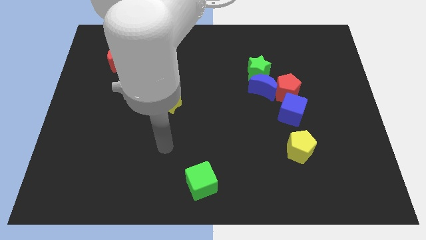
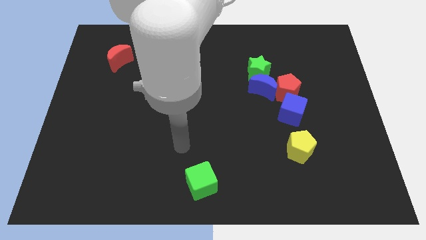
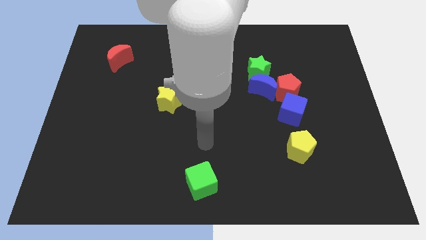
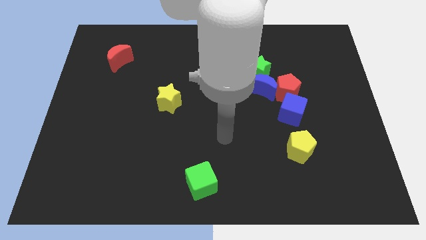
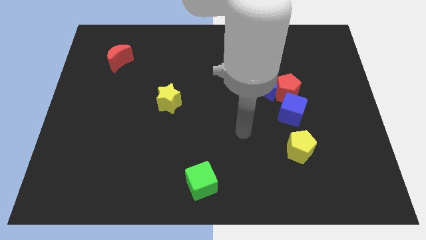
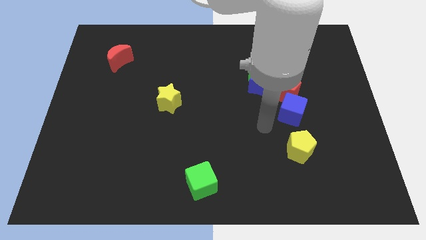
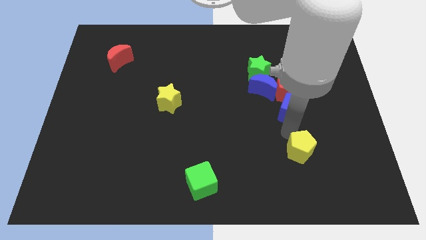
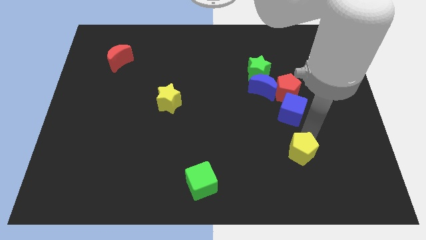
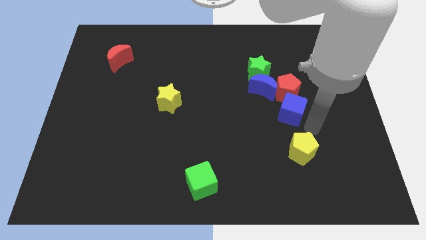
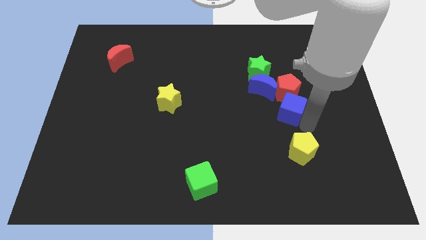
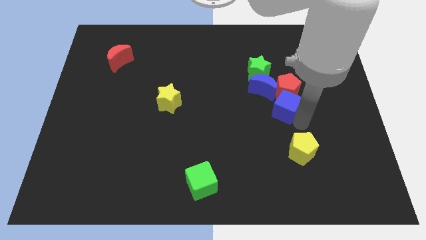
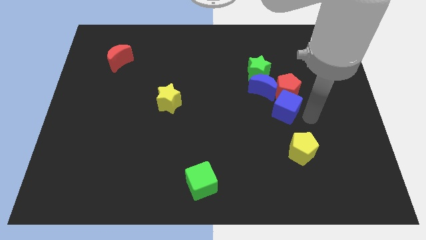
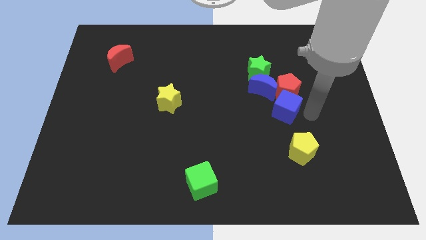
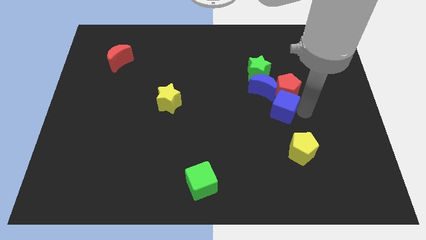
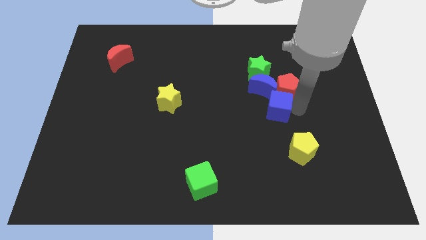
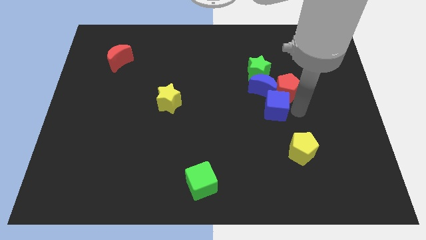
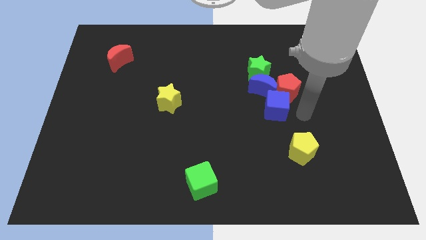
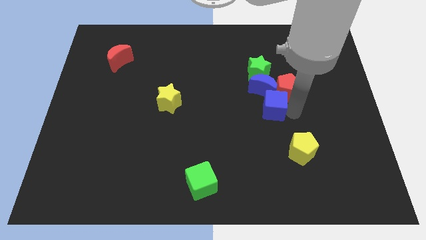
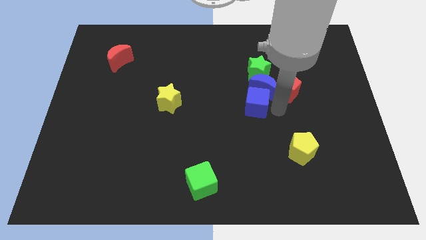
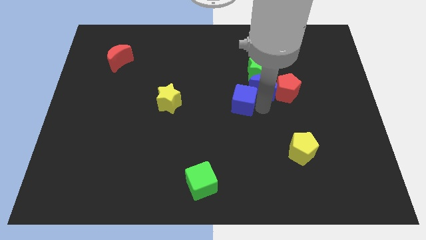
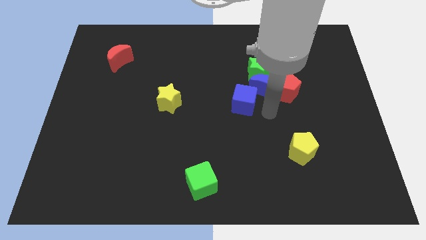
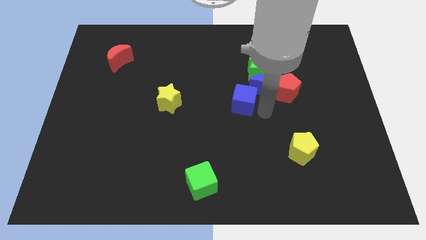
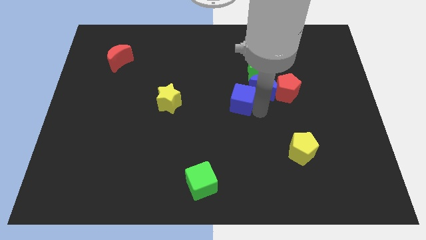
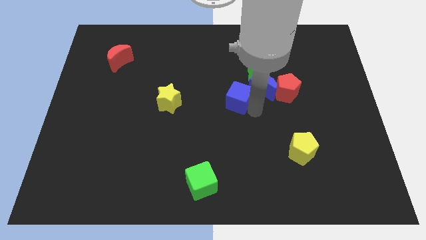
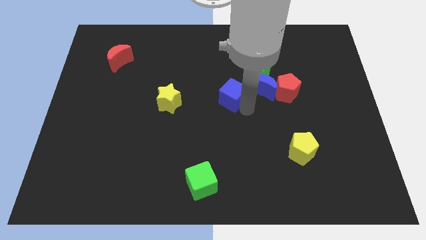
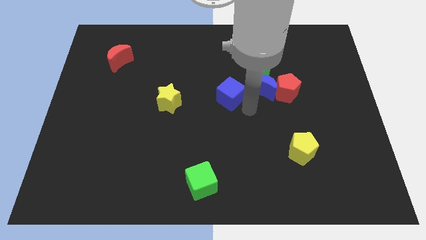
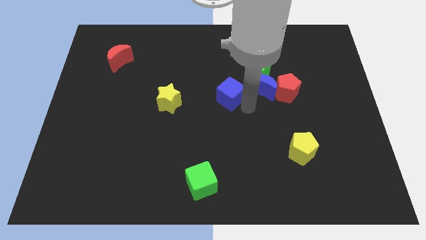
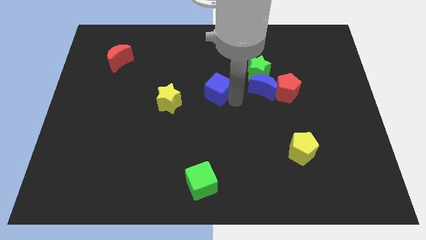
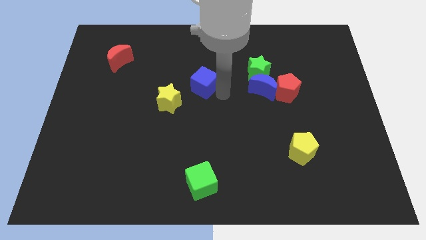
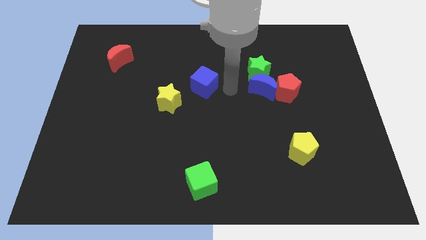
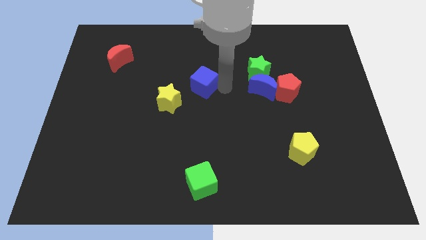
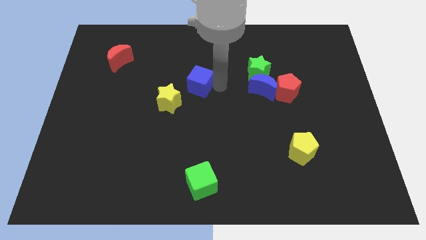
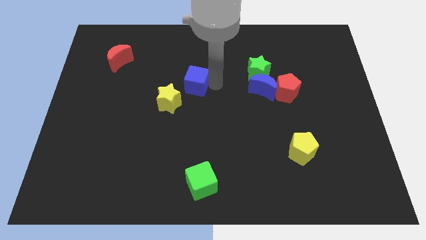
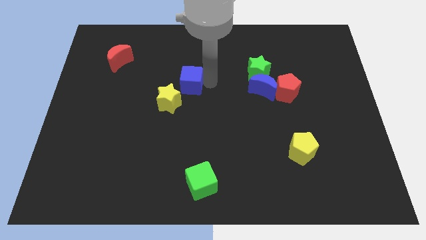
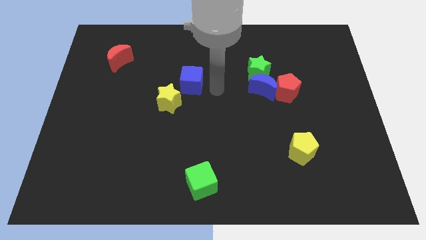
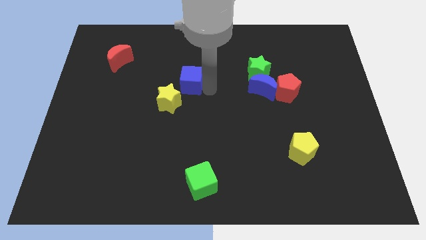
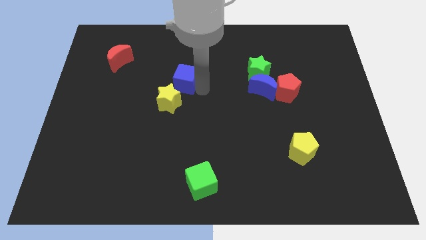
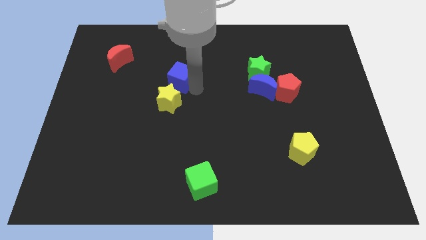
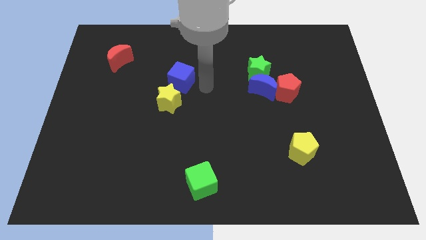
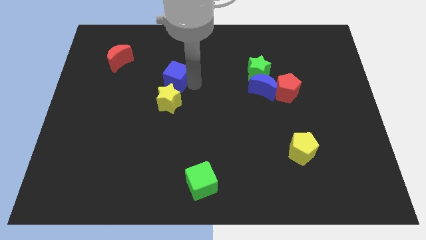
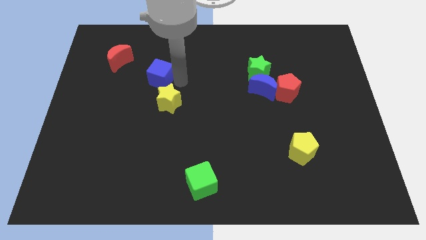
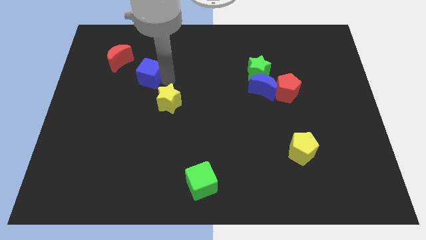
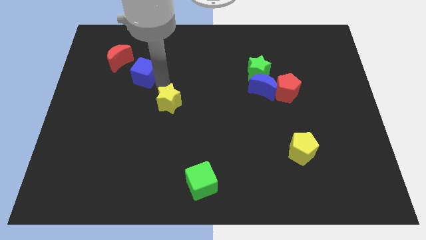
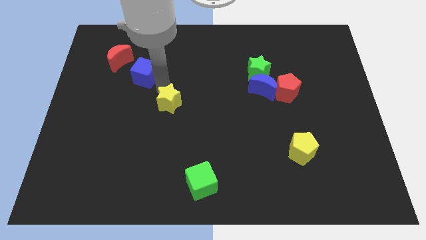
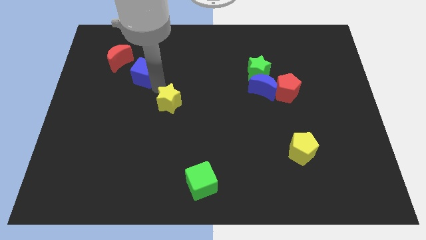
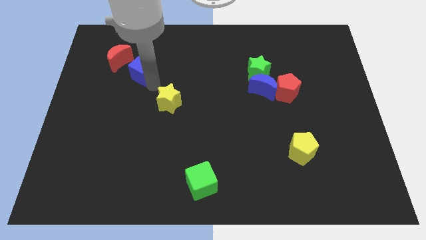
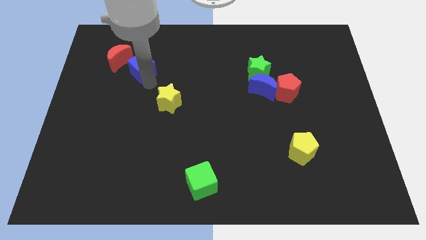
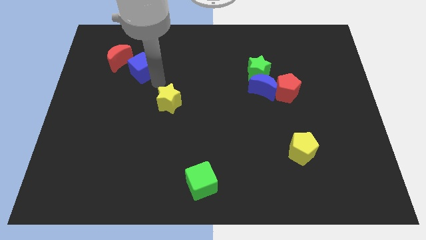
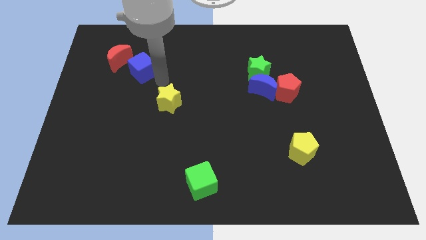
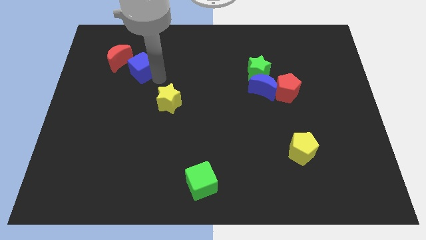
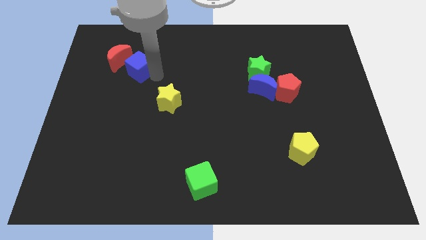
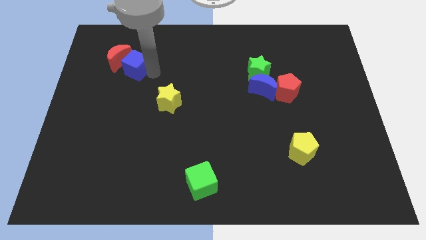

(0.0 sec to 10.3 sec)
slide the blue cube close to the red moon

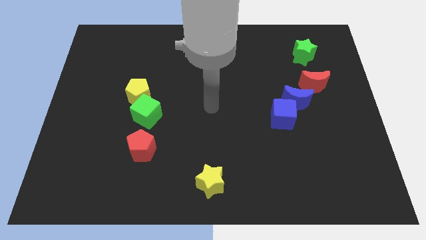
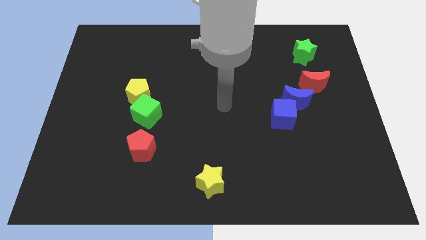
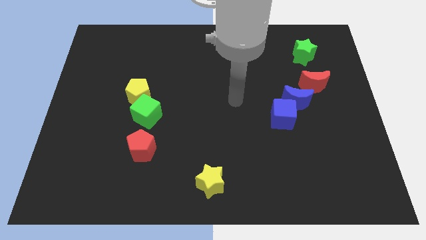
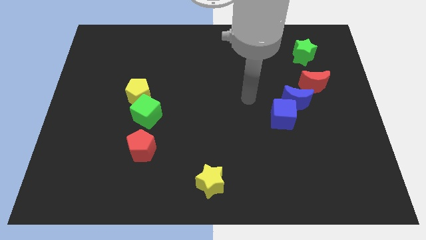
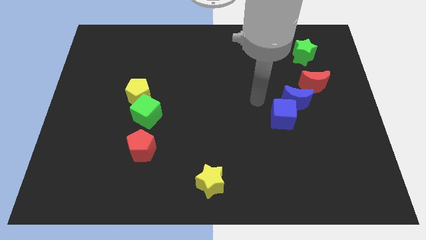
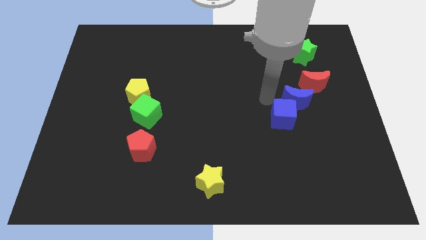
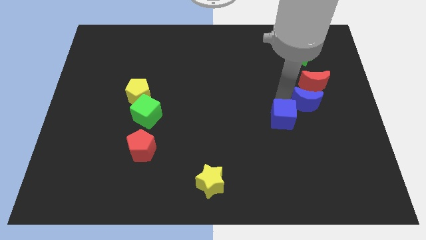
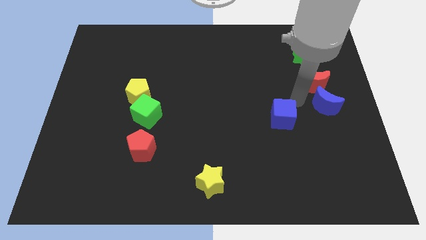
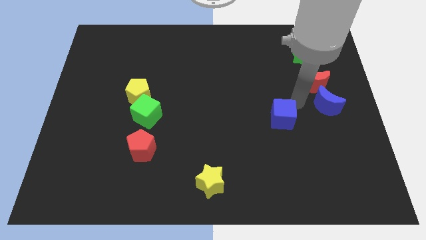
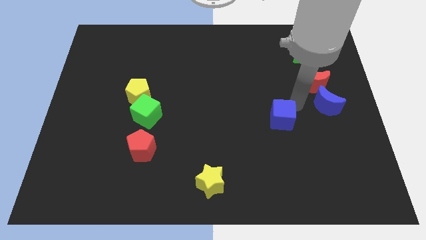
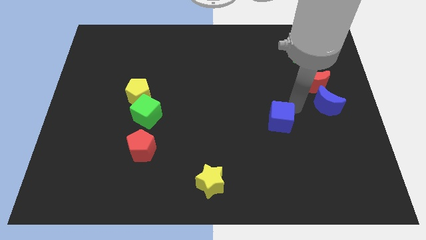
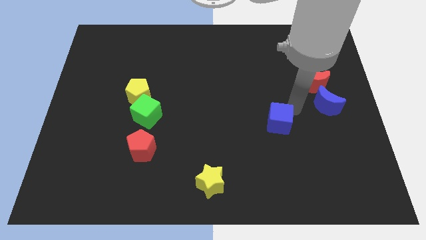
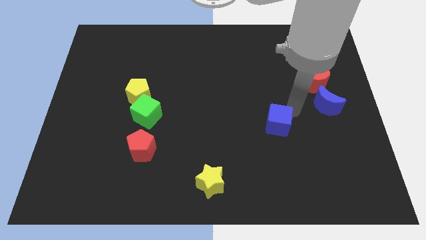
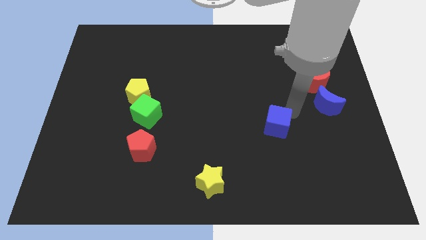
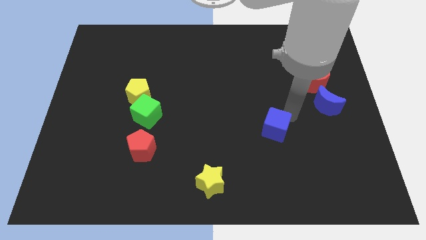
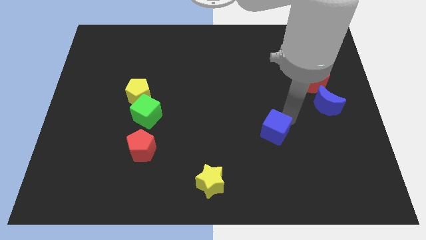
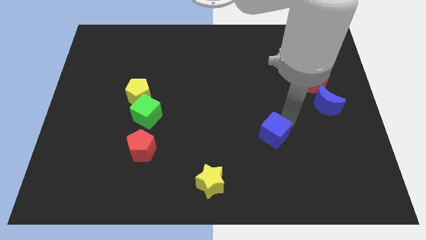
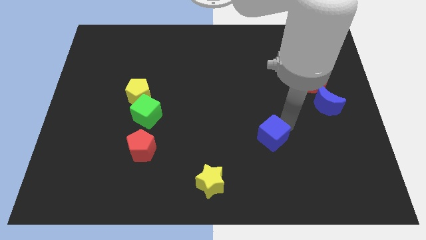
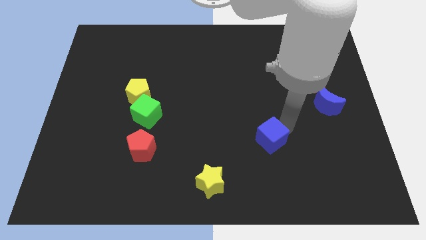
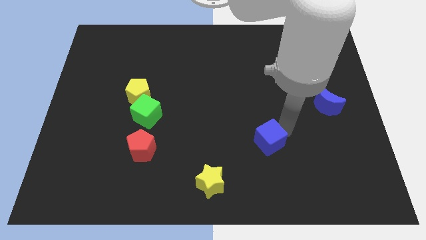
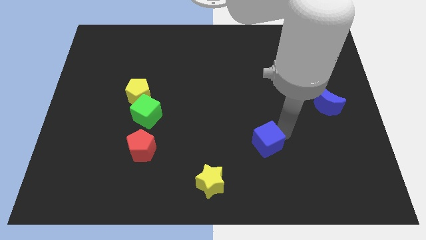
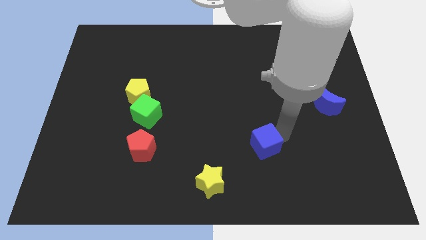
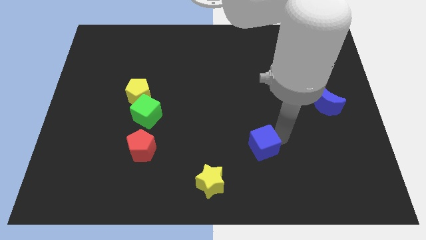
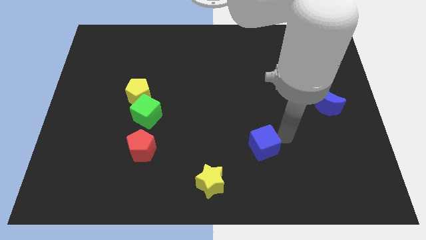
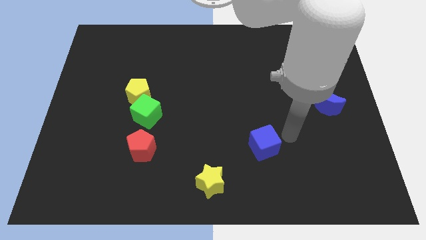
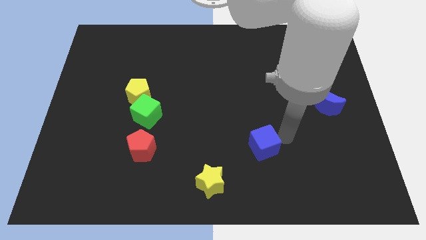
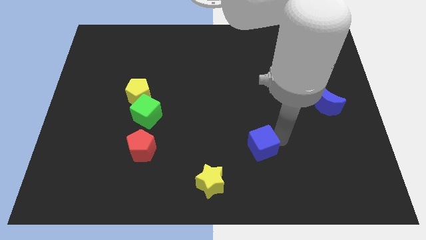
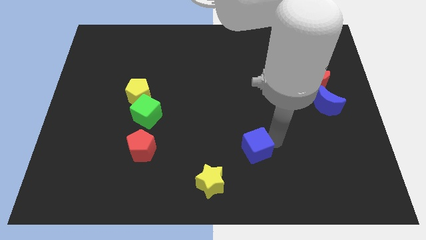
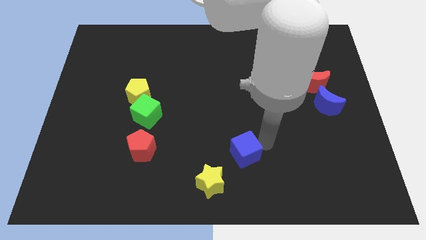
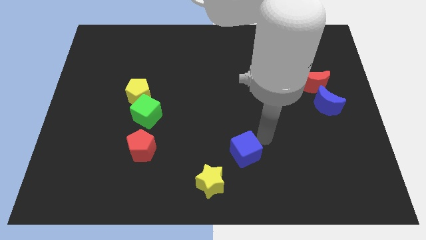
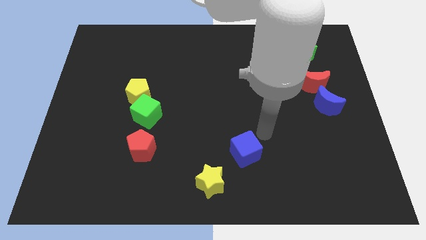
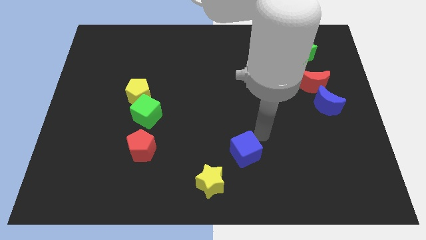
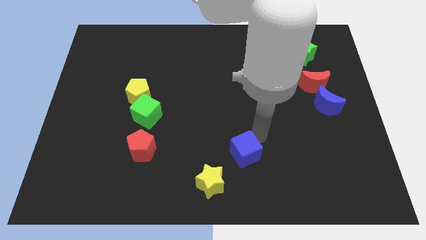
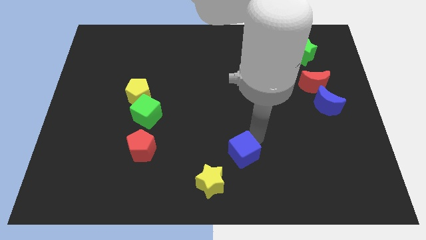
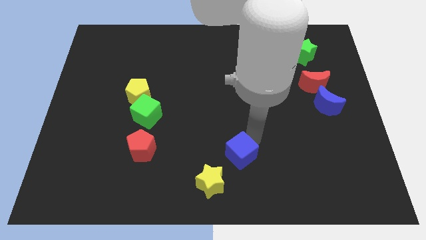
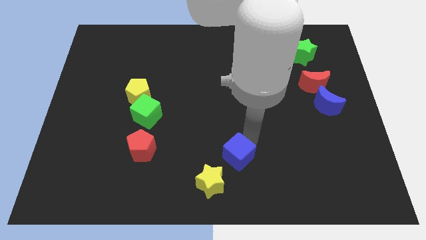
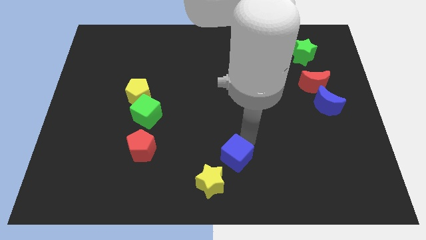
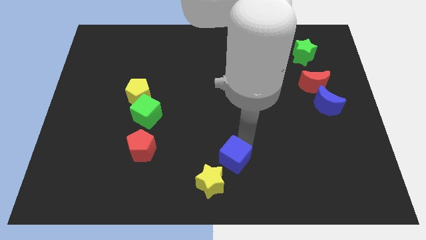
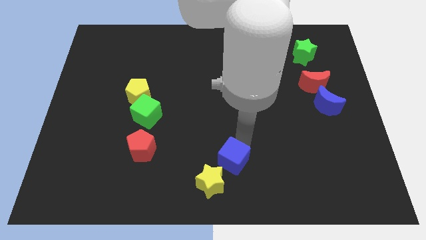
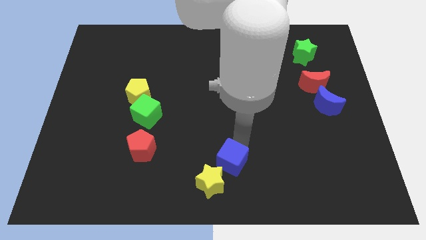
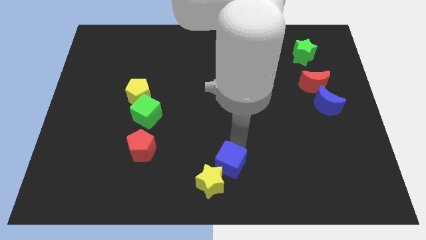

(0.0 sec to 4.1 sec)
slide the blue cube to the yellow star
